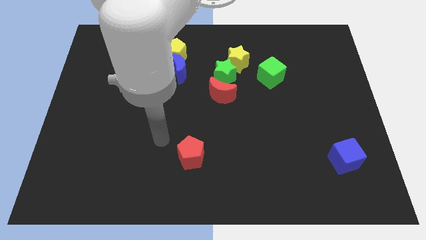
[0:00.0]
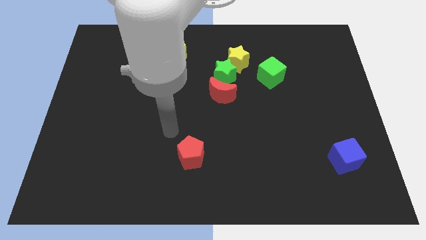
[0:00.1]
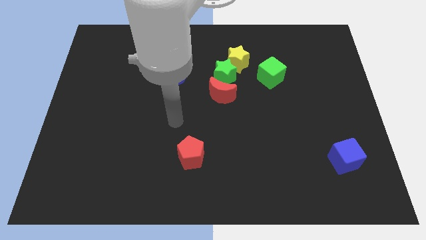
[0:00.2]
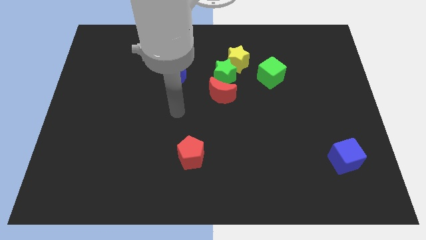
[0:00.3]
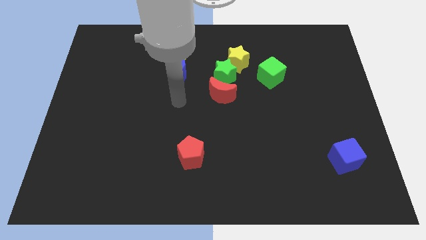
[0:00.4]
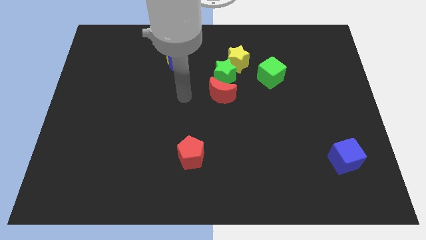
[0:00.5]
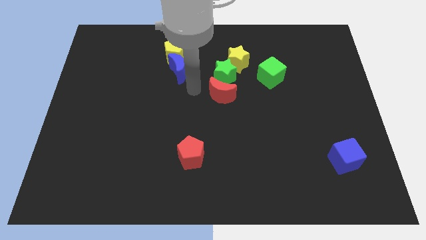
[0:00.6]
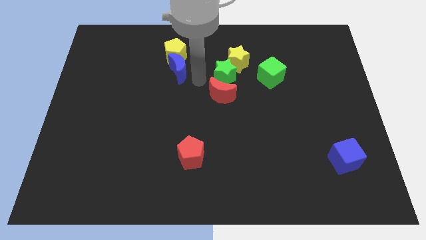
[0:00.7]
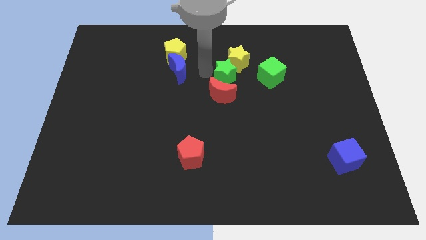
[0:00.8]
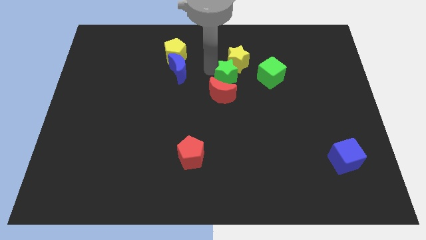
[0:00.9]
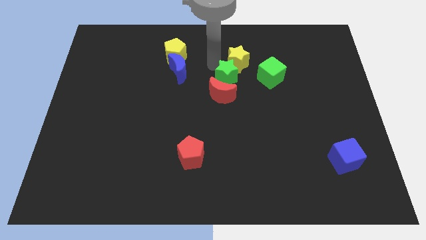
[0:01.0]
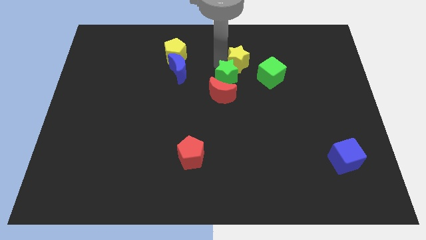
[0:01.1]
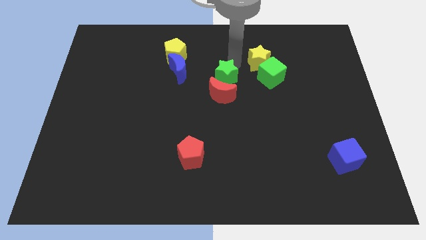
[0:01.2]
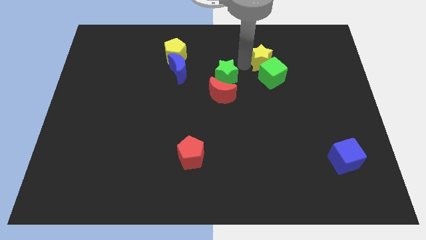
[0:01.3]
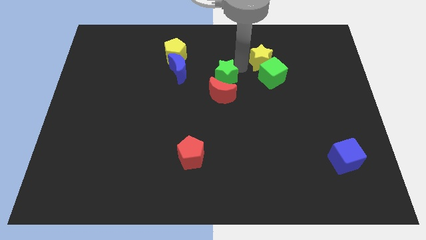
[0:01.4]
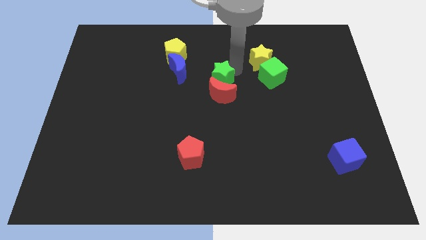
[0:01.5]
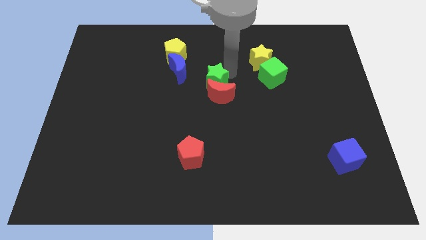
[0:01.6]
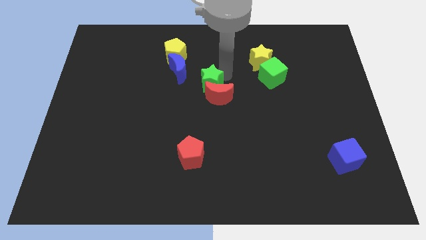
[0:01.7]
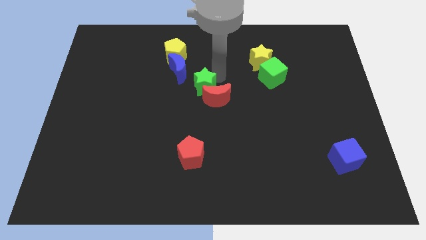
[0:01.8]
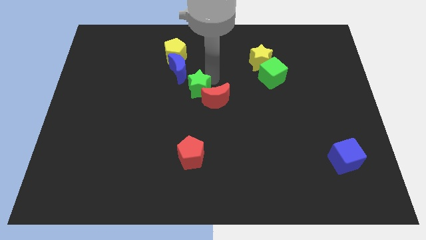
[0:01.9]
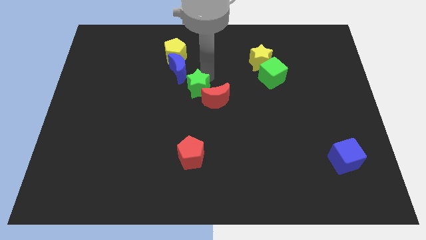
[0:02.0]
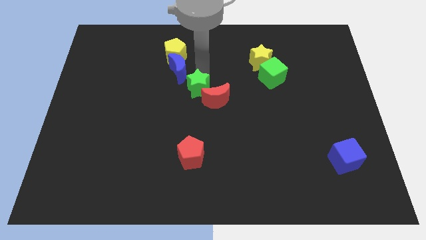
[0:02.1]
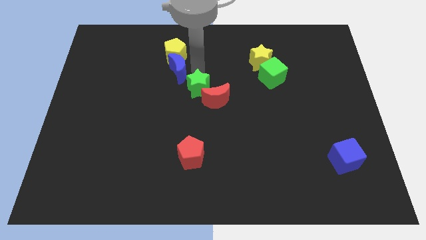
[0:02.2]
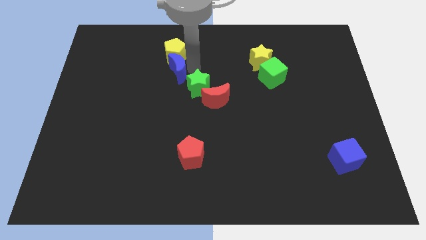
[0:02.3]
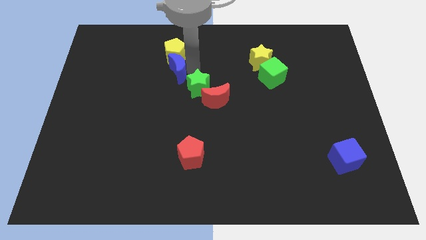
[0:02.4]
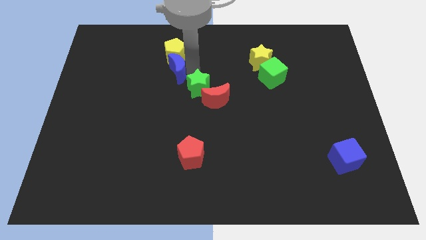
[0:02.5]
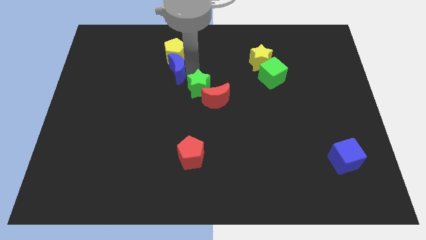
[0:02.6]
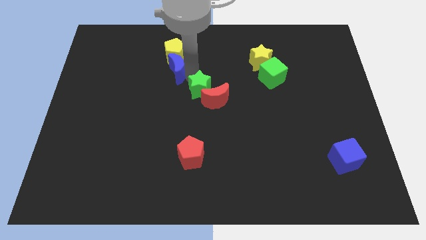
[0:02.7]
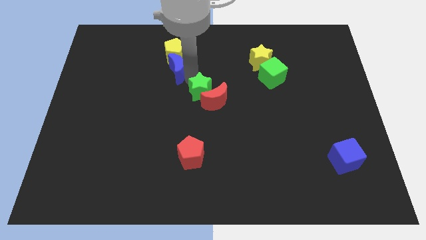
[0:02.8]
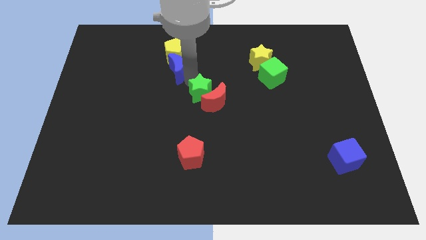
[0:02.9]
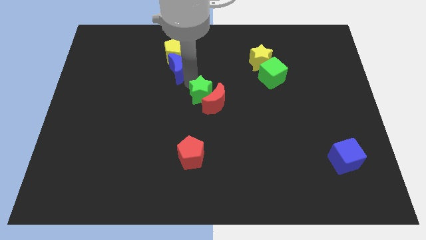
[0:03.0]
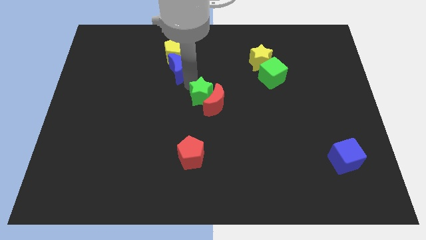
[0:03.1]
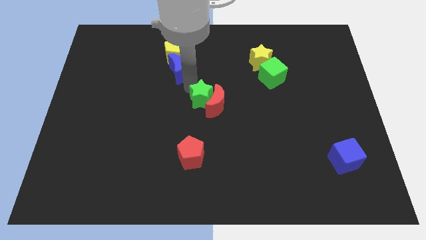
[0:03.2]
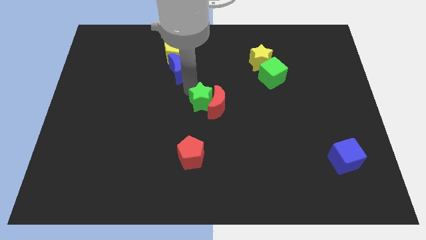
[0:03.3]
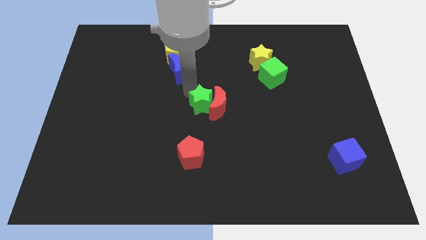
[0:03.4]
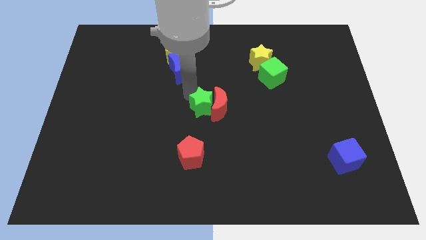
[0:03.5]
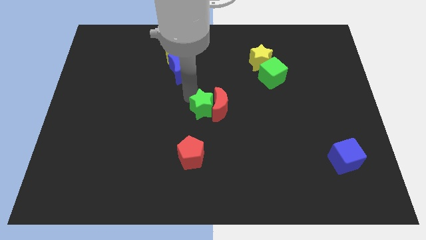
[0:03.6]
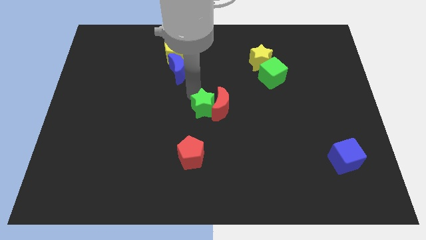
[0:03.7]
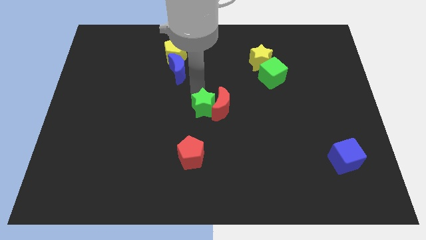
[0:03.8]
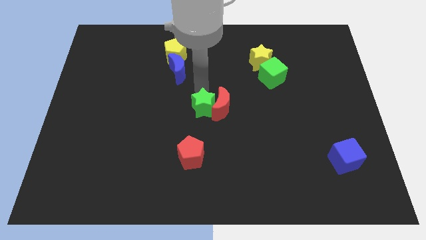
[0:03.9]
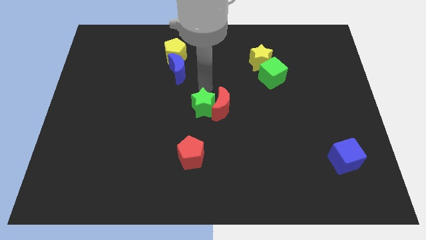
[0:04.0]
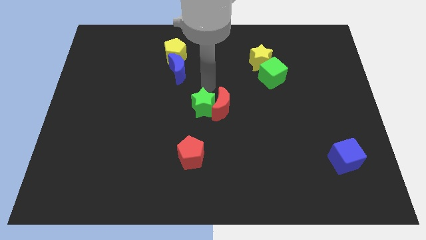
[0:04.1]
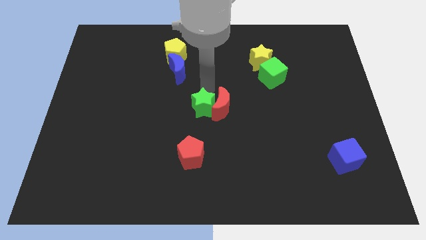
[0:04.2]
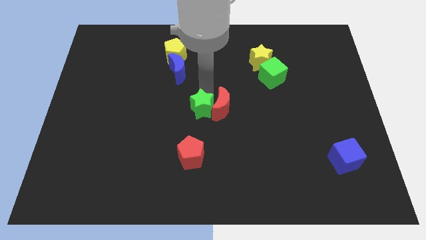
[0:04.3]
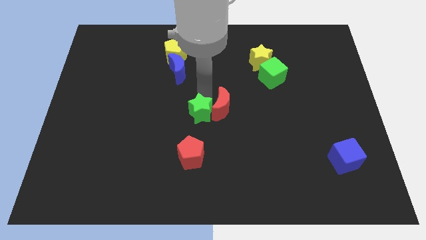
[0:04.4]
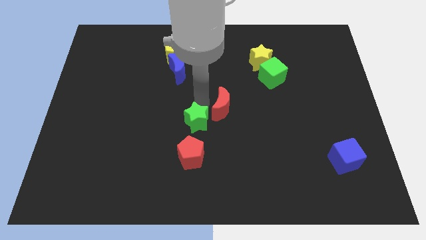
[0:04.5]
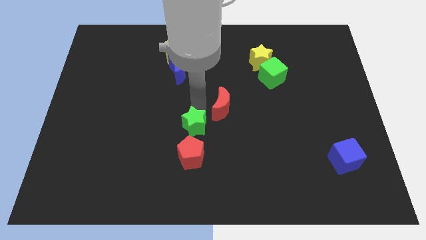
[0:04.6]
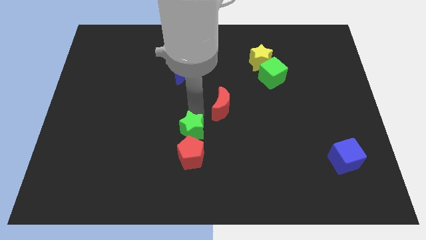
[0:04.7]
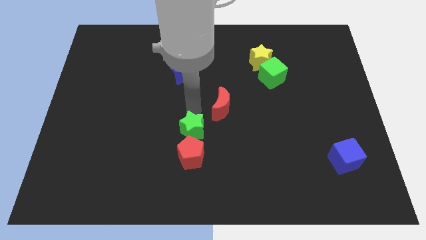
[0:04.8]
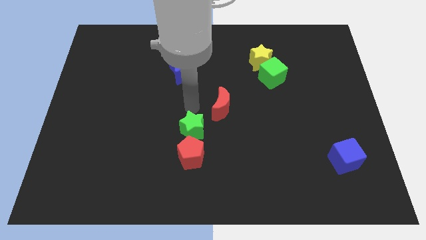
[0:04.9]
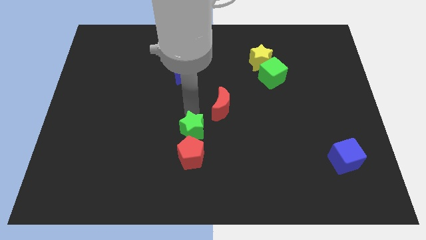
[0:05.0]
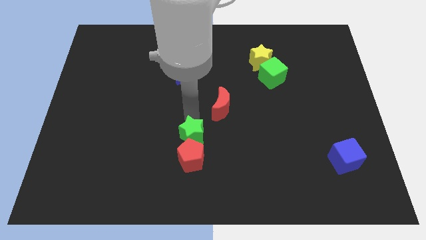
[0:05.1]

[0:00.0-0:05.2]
move the green star close to the red pentagon

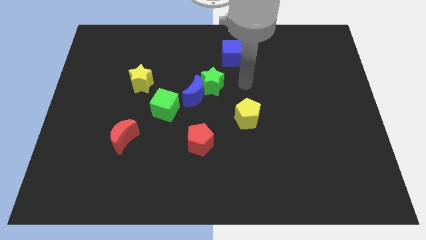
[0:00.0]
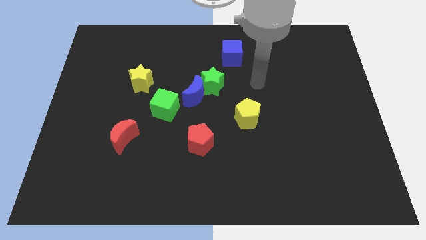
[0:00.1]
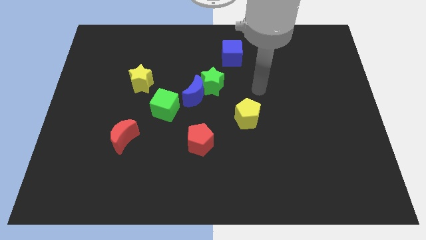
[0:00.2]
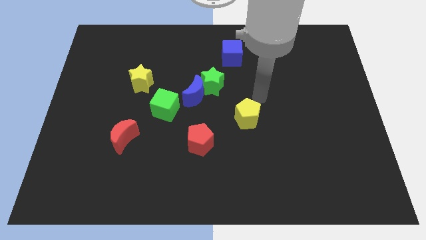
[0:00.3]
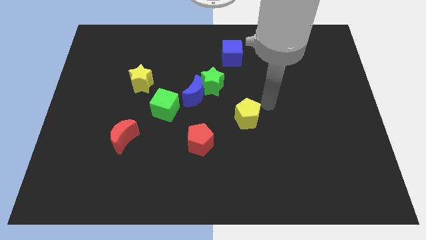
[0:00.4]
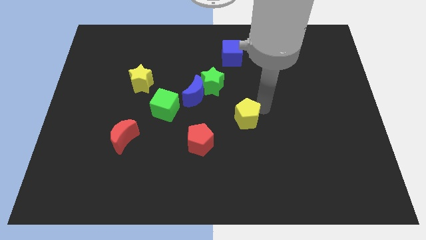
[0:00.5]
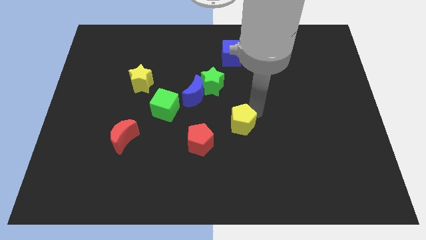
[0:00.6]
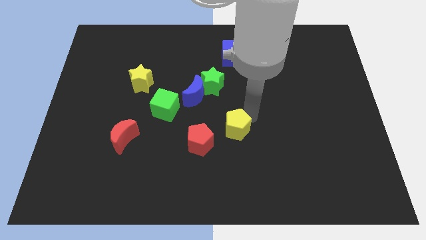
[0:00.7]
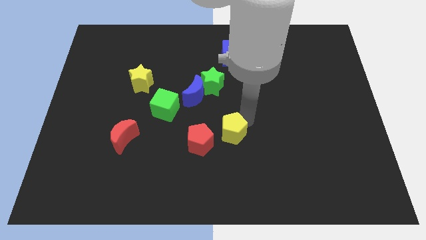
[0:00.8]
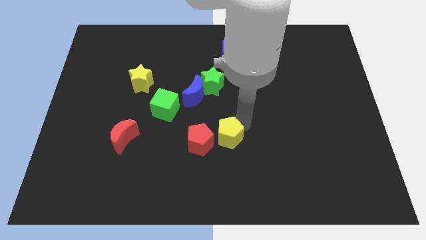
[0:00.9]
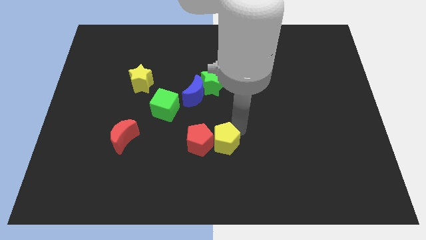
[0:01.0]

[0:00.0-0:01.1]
move the yellow pentagon to the red pentagon

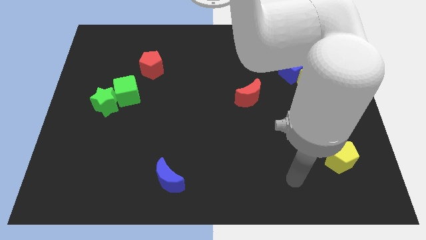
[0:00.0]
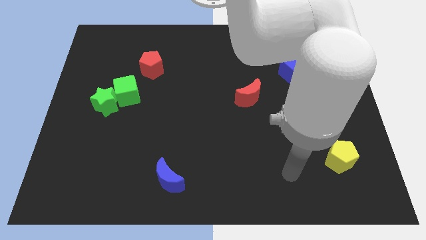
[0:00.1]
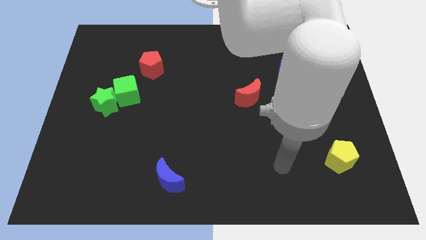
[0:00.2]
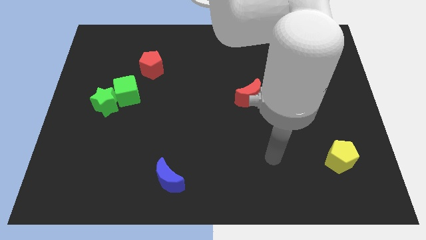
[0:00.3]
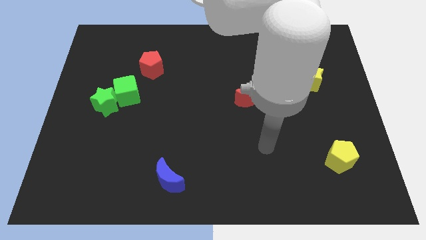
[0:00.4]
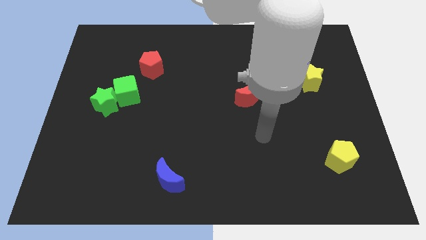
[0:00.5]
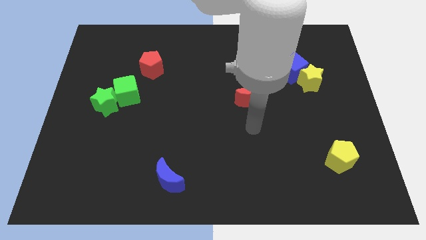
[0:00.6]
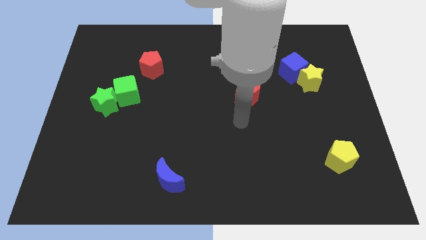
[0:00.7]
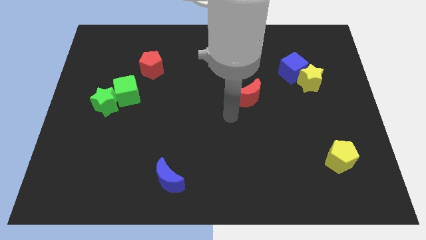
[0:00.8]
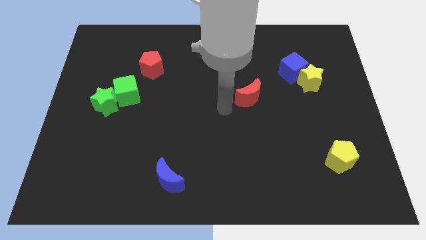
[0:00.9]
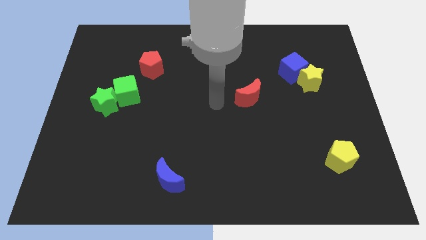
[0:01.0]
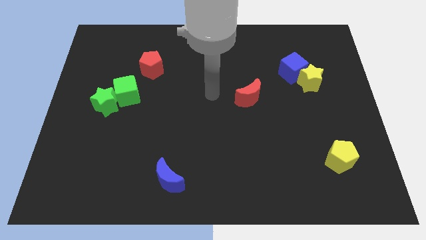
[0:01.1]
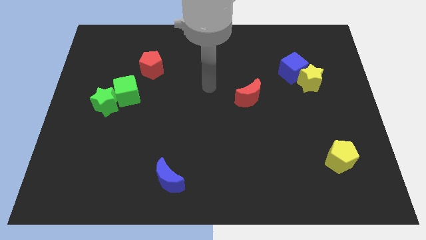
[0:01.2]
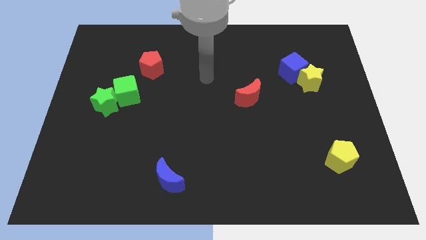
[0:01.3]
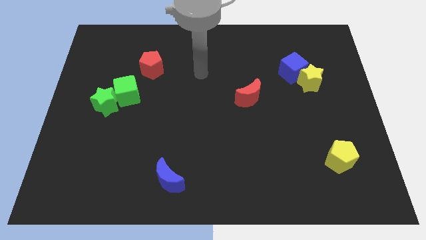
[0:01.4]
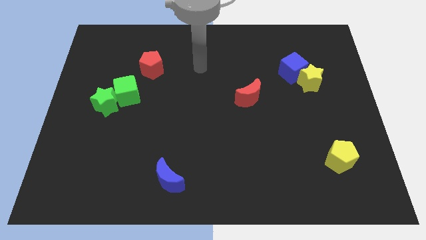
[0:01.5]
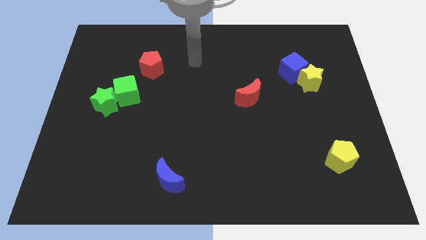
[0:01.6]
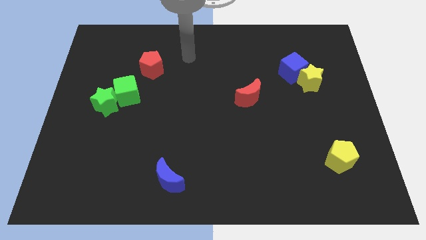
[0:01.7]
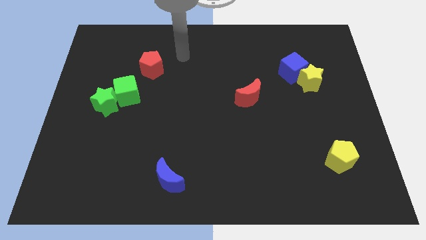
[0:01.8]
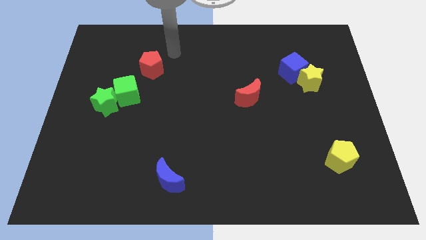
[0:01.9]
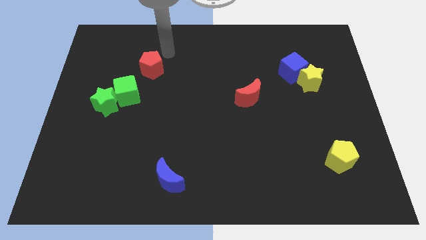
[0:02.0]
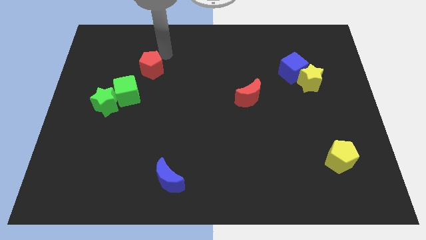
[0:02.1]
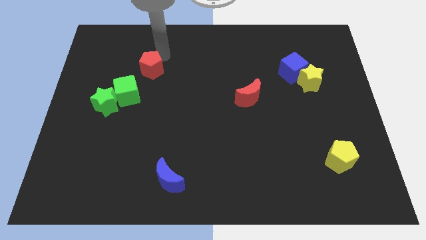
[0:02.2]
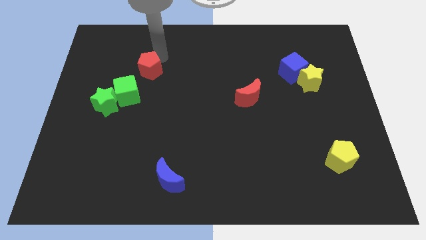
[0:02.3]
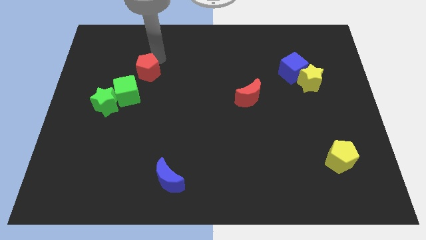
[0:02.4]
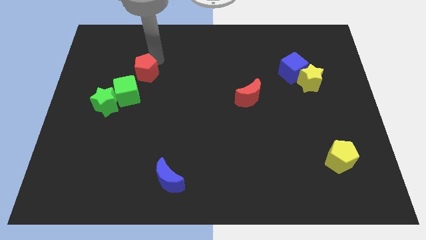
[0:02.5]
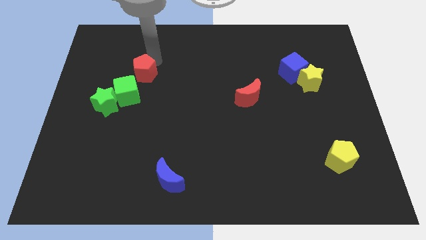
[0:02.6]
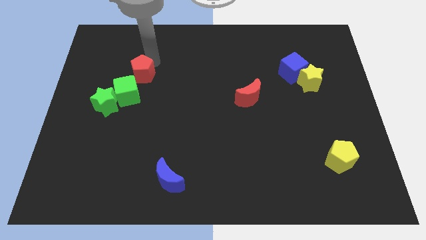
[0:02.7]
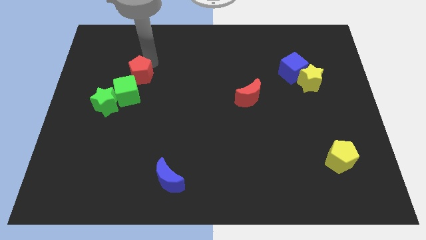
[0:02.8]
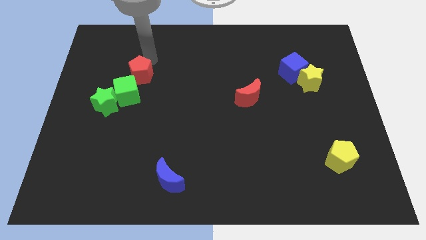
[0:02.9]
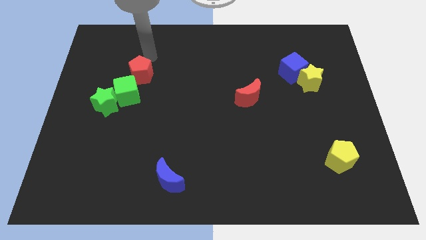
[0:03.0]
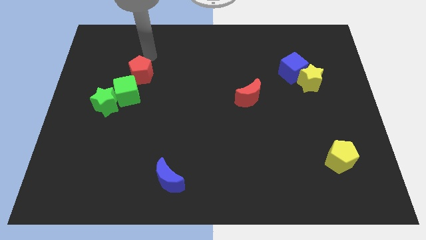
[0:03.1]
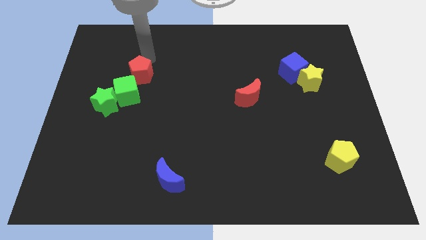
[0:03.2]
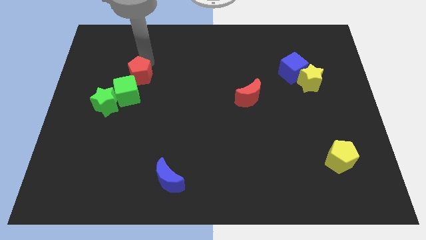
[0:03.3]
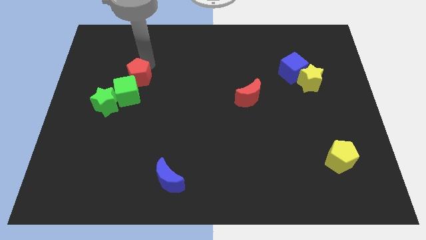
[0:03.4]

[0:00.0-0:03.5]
slide the red pentagon close to the green cube
